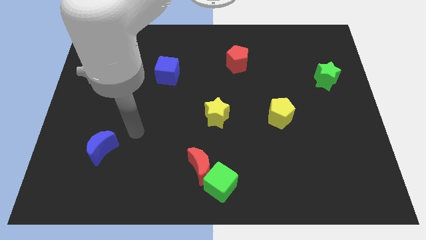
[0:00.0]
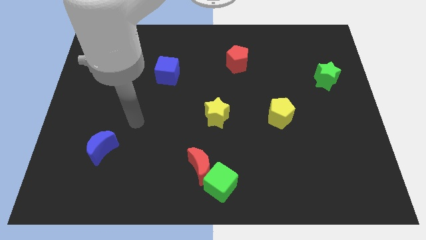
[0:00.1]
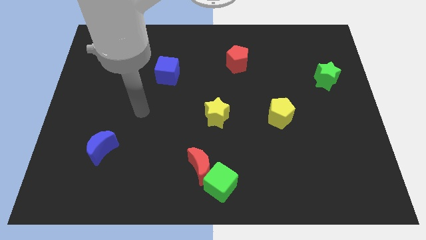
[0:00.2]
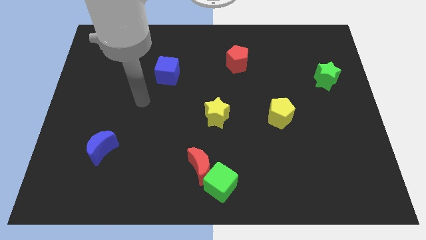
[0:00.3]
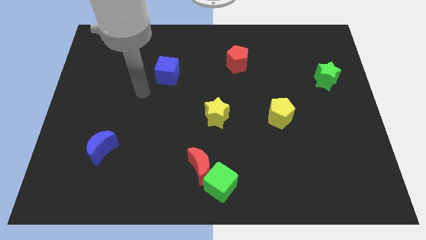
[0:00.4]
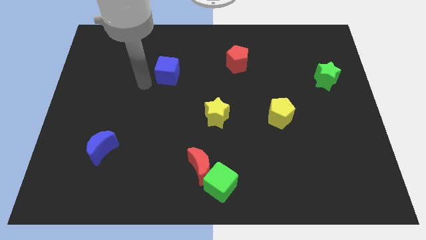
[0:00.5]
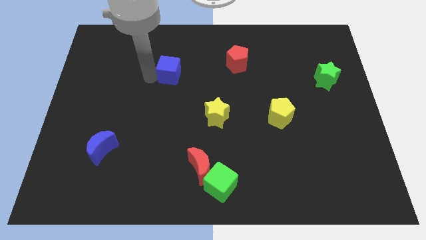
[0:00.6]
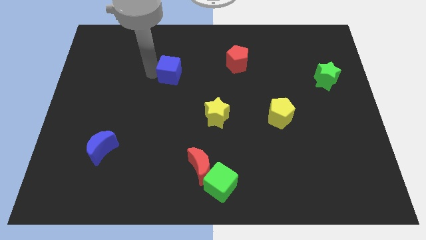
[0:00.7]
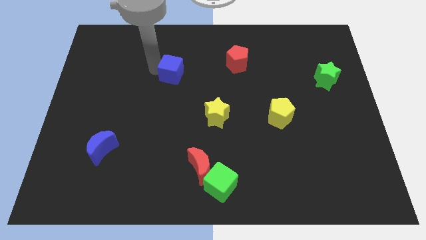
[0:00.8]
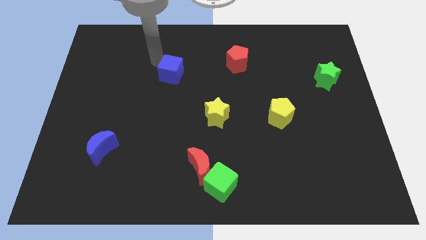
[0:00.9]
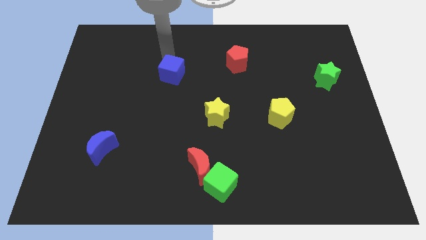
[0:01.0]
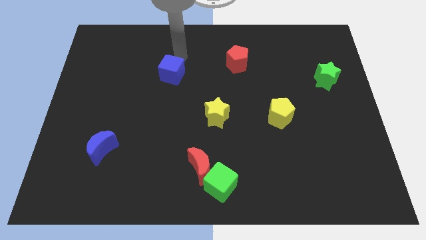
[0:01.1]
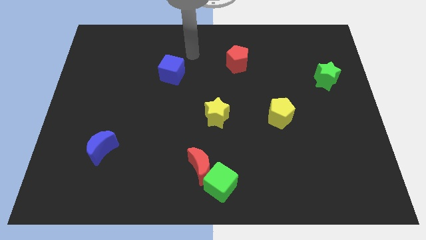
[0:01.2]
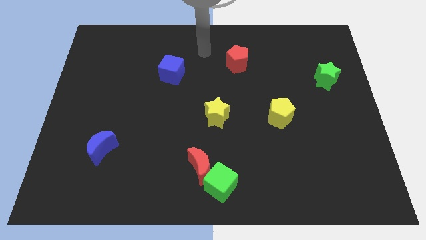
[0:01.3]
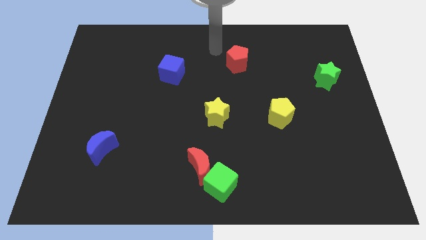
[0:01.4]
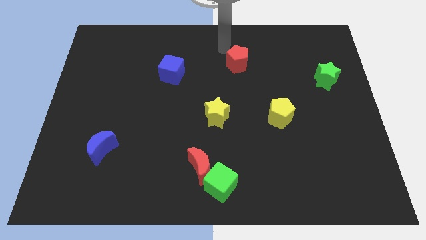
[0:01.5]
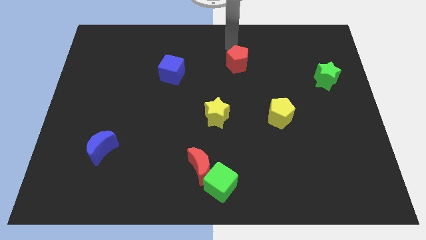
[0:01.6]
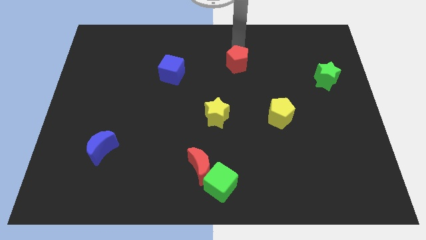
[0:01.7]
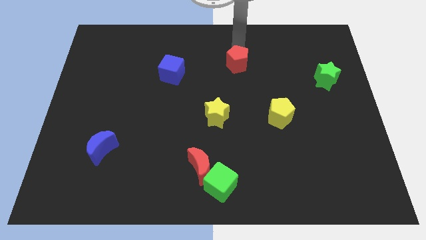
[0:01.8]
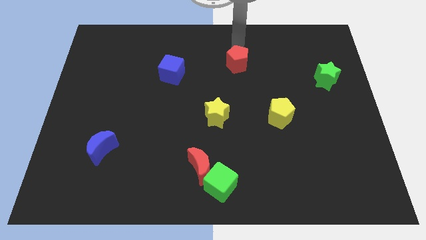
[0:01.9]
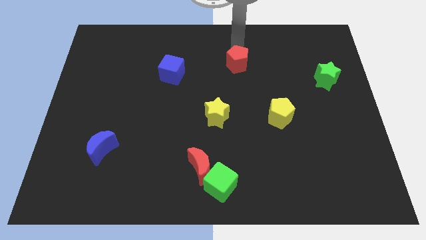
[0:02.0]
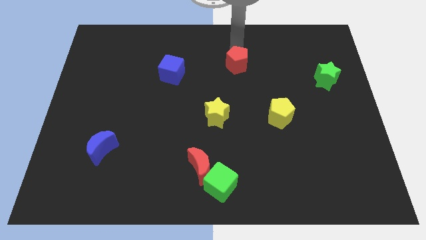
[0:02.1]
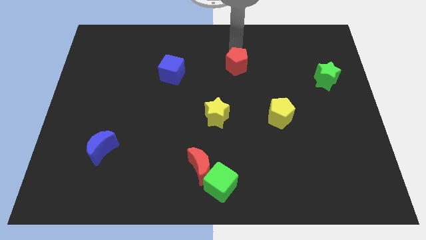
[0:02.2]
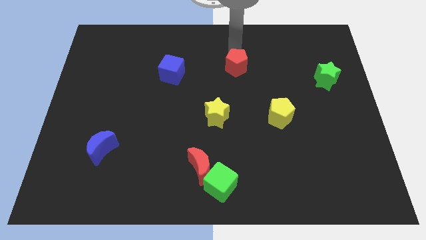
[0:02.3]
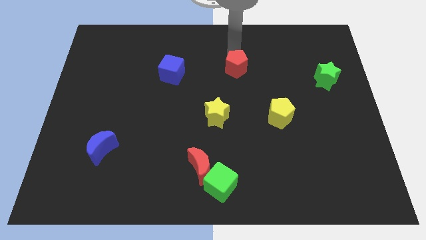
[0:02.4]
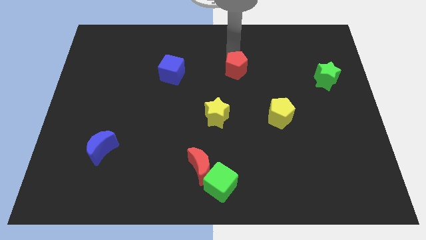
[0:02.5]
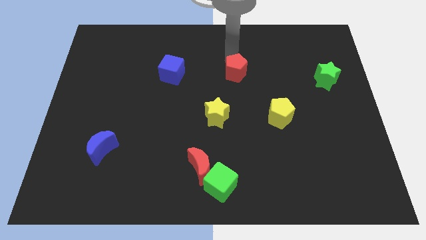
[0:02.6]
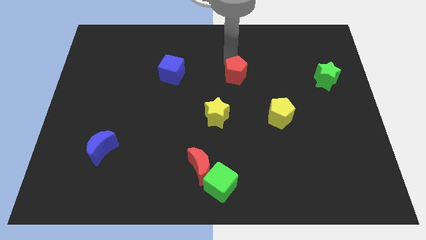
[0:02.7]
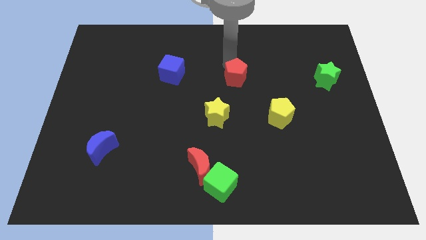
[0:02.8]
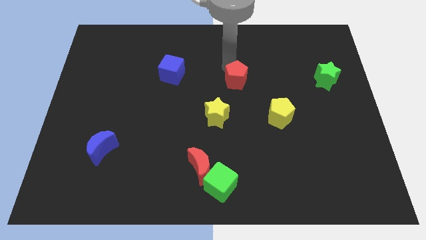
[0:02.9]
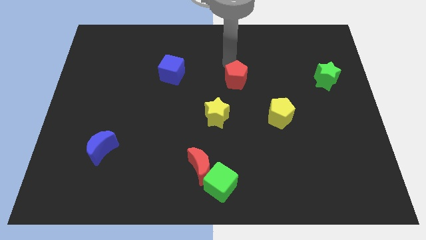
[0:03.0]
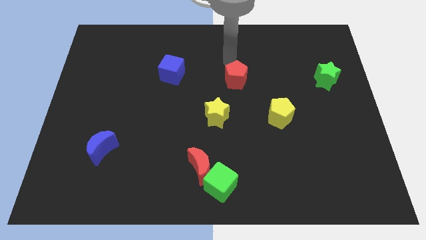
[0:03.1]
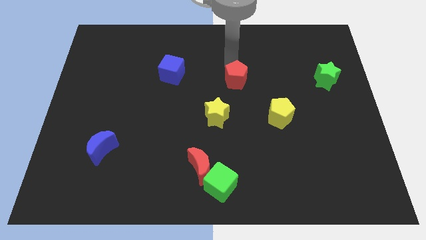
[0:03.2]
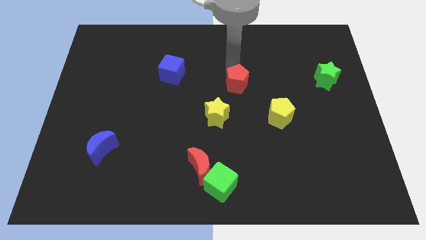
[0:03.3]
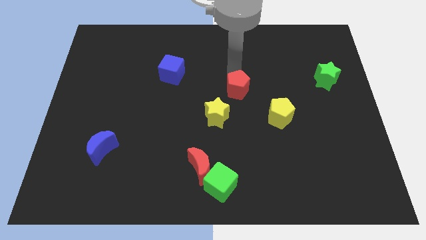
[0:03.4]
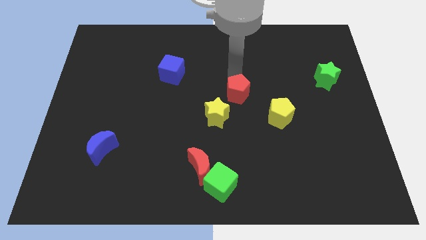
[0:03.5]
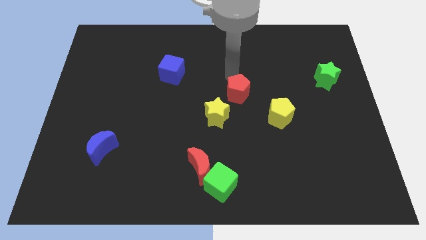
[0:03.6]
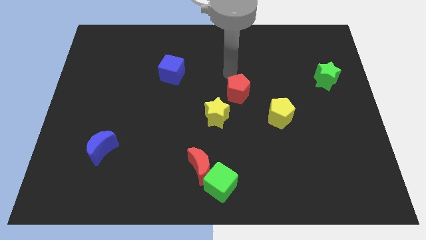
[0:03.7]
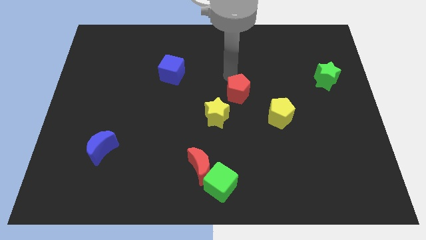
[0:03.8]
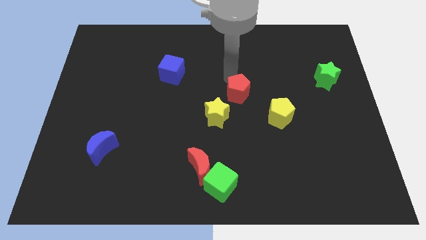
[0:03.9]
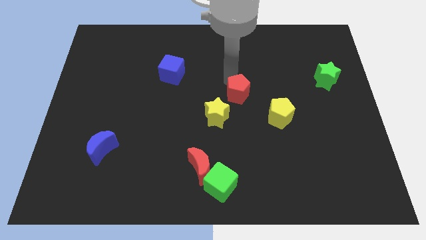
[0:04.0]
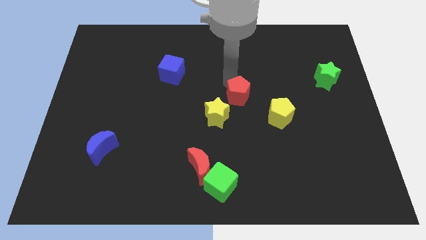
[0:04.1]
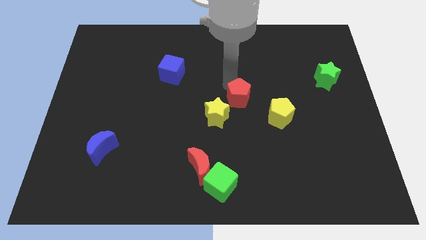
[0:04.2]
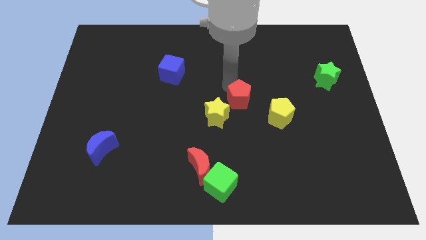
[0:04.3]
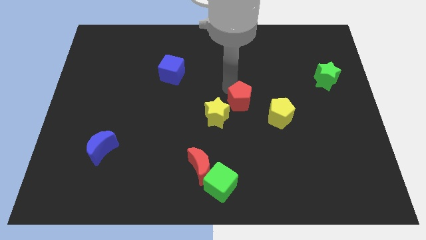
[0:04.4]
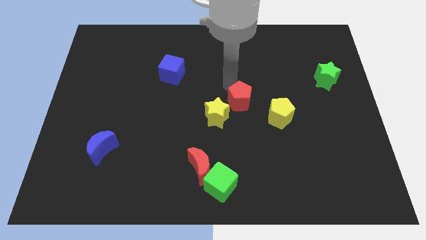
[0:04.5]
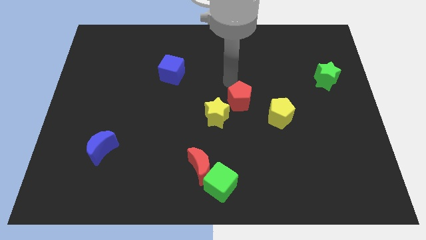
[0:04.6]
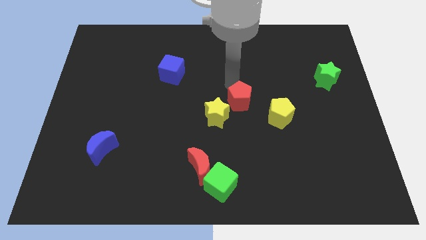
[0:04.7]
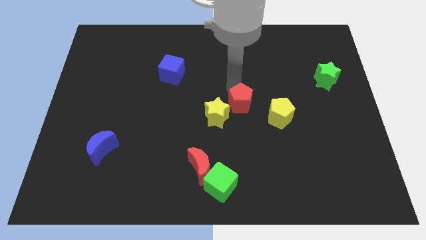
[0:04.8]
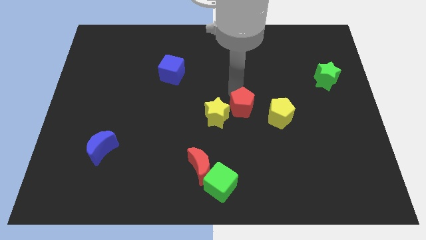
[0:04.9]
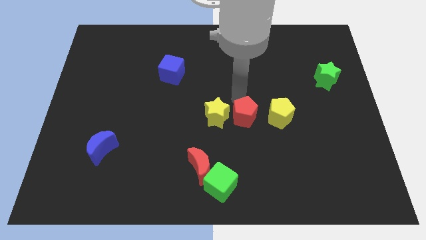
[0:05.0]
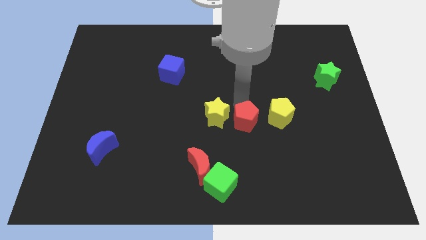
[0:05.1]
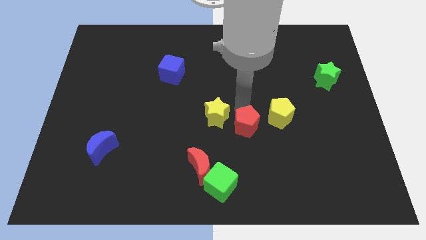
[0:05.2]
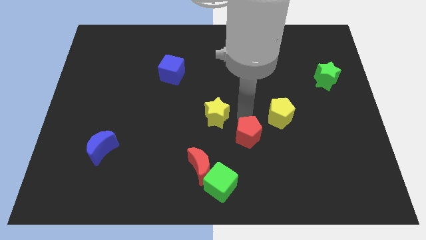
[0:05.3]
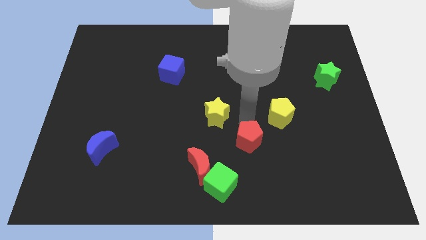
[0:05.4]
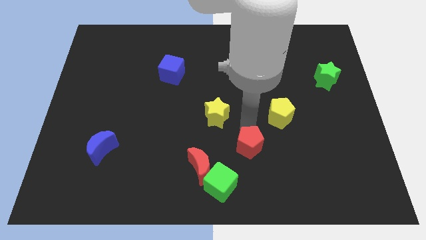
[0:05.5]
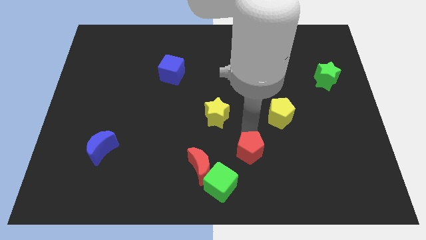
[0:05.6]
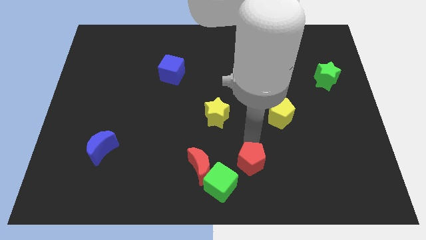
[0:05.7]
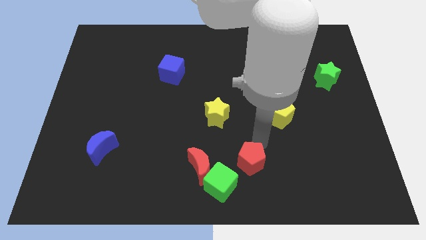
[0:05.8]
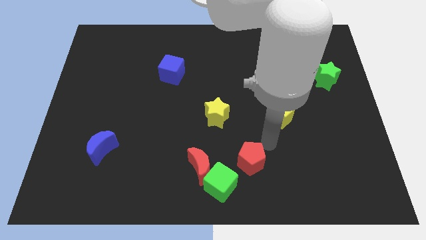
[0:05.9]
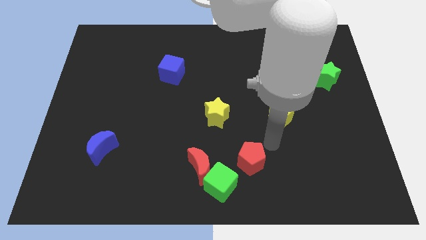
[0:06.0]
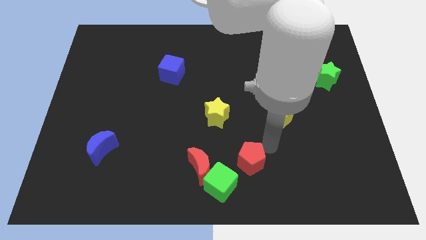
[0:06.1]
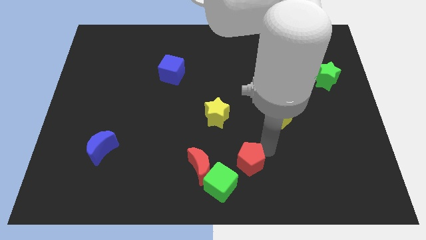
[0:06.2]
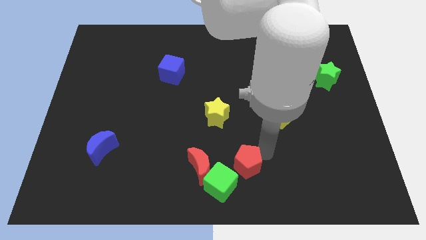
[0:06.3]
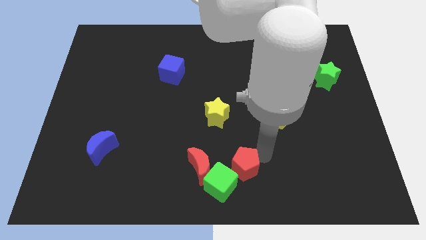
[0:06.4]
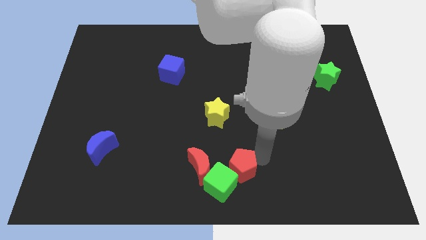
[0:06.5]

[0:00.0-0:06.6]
slide the red pentagon next to the green cube

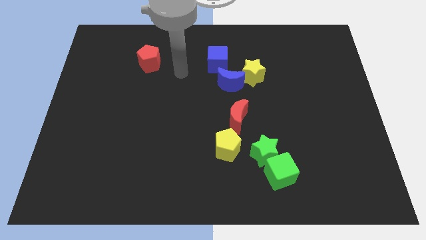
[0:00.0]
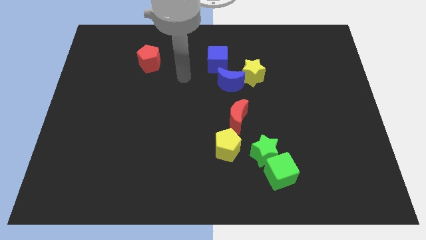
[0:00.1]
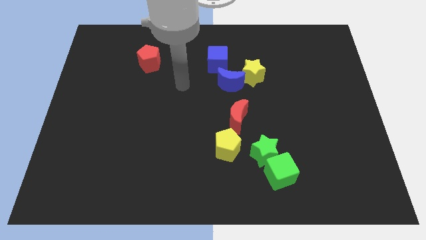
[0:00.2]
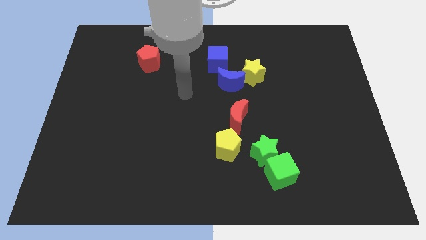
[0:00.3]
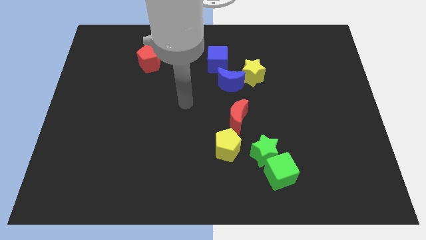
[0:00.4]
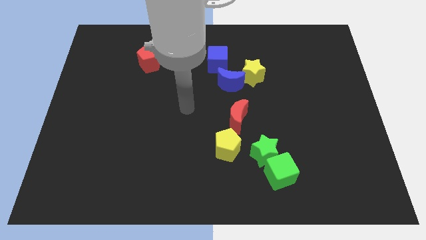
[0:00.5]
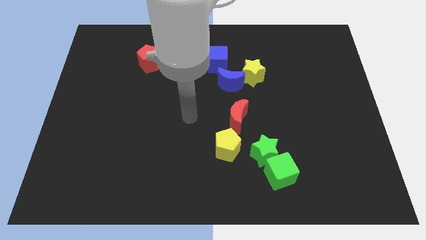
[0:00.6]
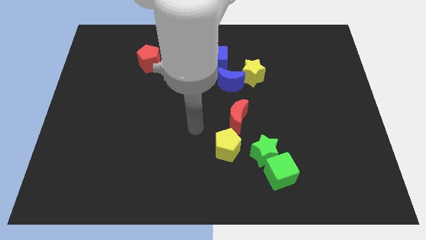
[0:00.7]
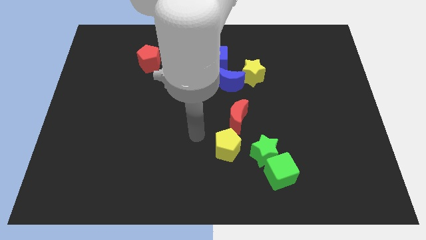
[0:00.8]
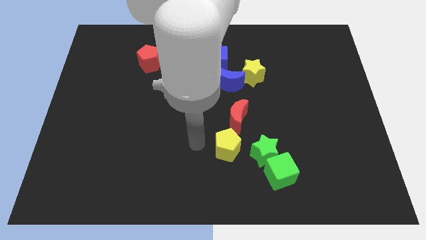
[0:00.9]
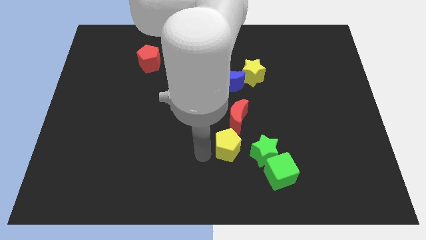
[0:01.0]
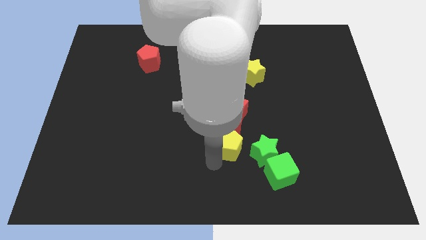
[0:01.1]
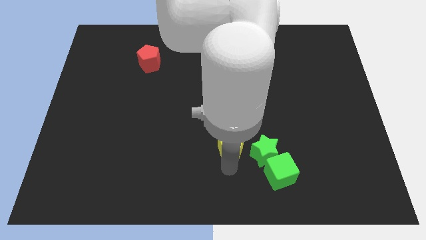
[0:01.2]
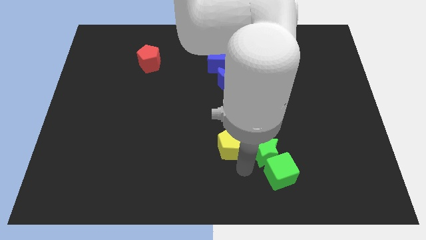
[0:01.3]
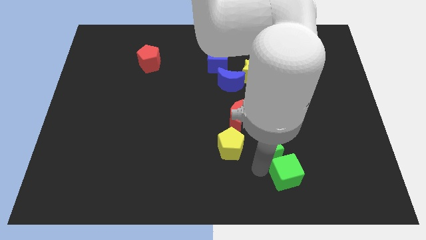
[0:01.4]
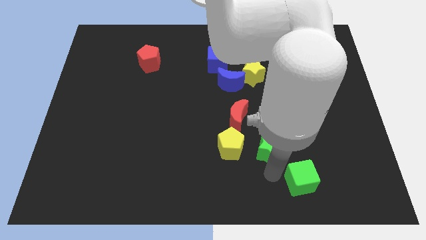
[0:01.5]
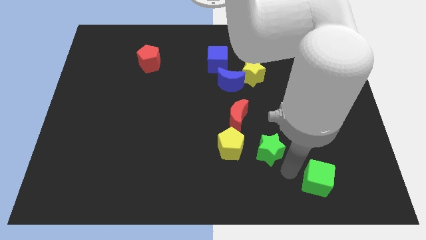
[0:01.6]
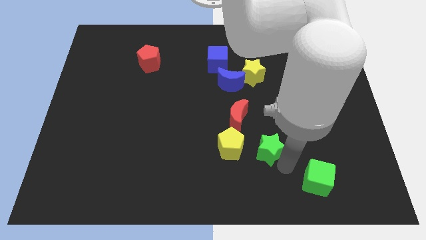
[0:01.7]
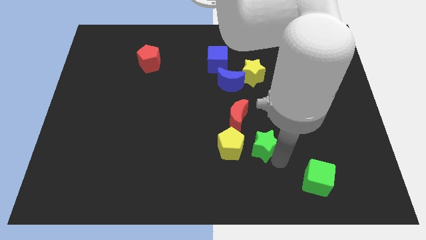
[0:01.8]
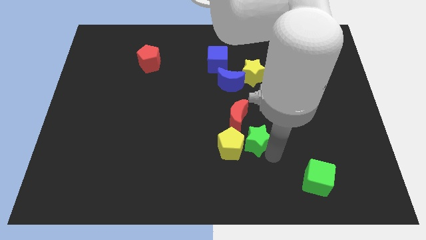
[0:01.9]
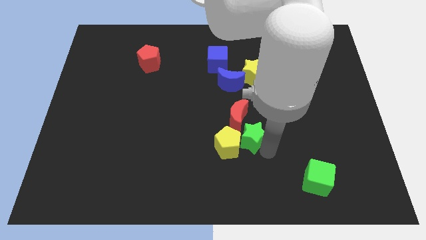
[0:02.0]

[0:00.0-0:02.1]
move the green star towards the red moon
